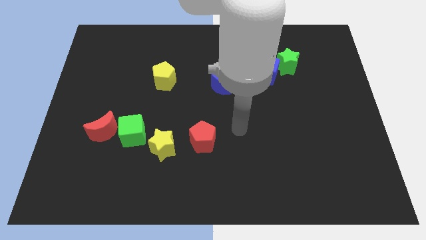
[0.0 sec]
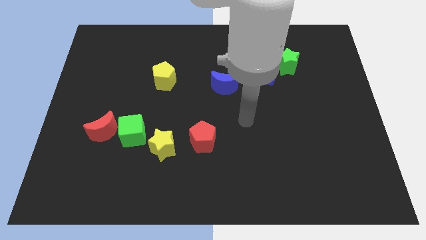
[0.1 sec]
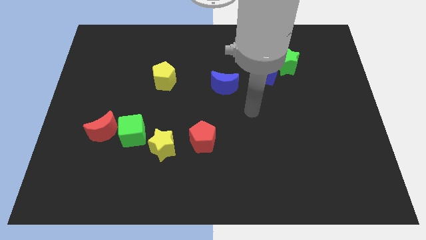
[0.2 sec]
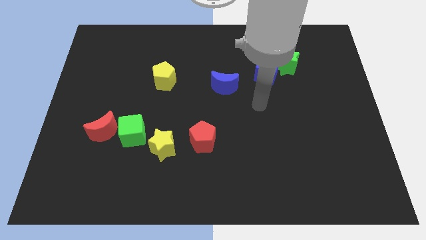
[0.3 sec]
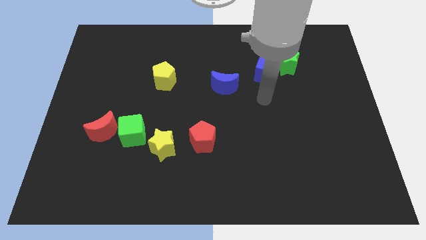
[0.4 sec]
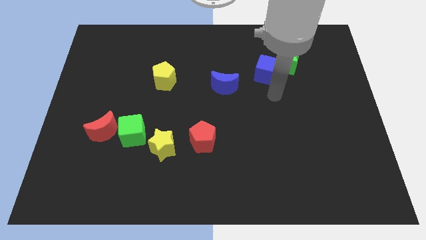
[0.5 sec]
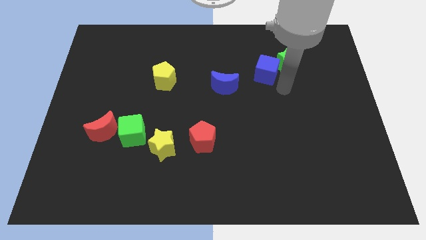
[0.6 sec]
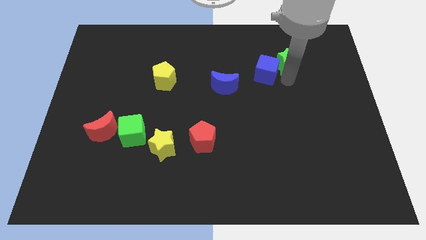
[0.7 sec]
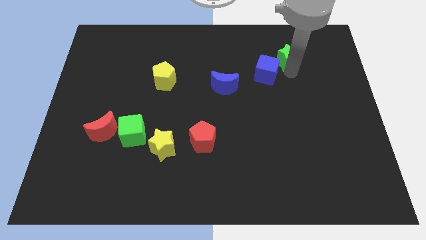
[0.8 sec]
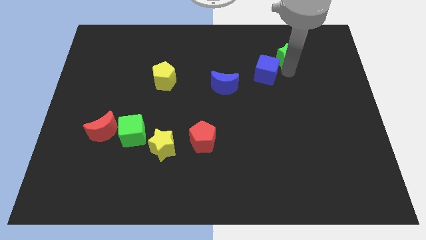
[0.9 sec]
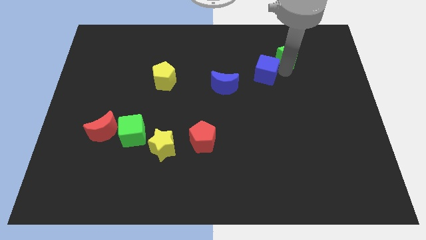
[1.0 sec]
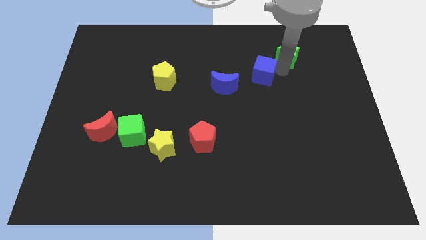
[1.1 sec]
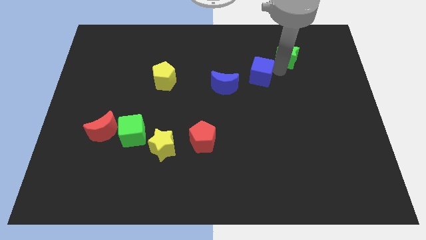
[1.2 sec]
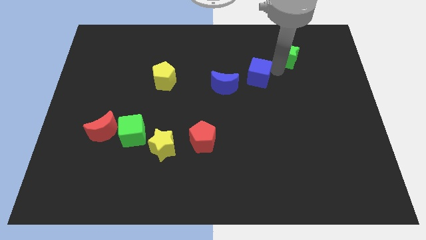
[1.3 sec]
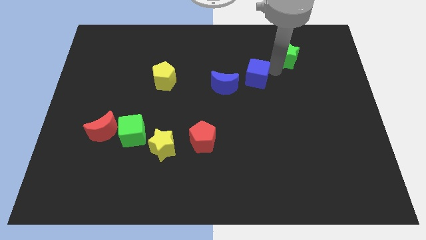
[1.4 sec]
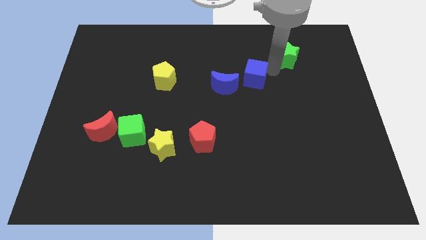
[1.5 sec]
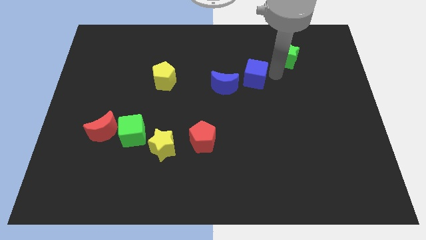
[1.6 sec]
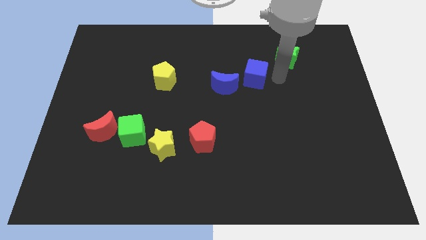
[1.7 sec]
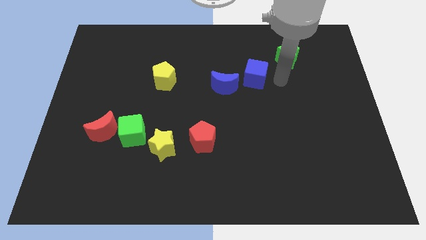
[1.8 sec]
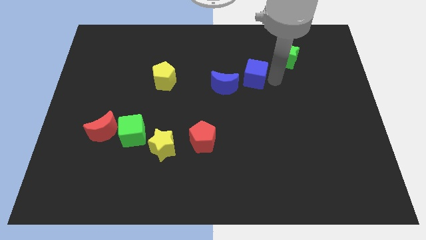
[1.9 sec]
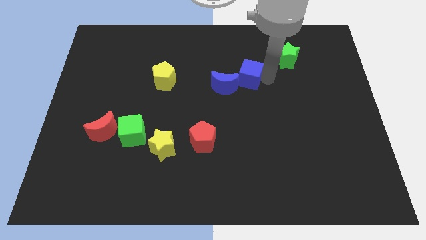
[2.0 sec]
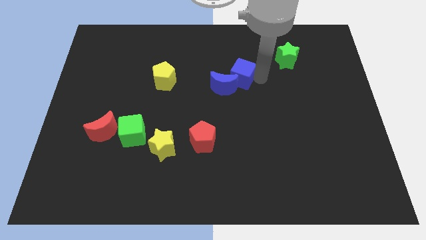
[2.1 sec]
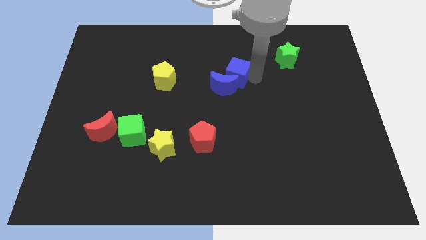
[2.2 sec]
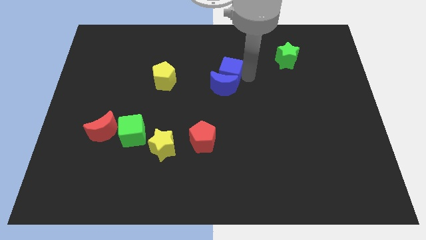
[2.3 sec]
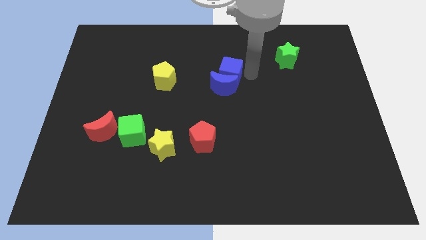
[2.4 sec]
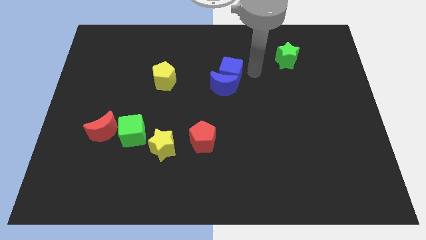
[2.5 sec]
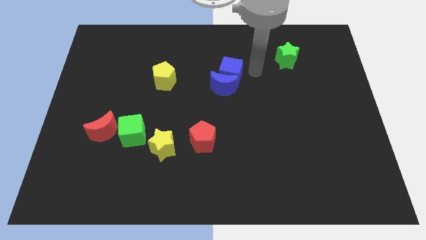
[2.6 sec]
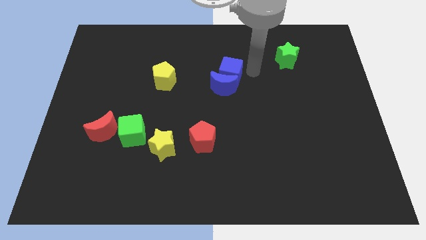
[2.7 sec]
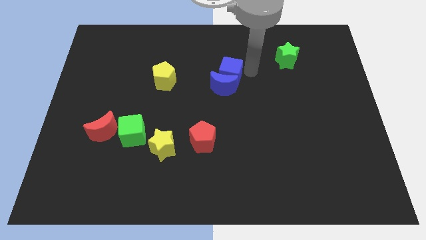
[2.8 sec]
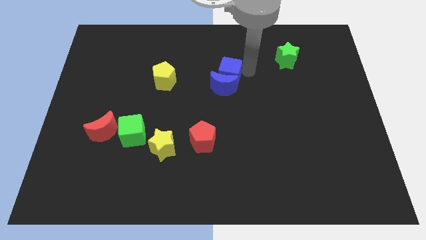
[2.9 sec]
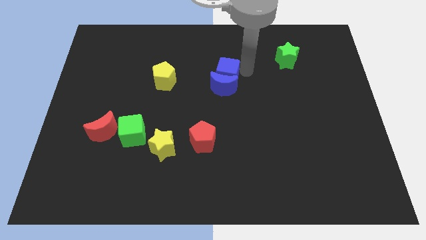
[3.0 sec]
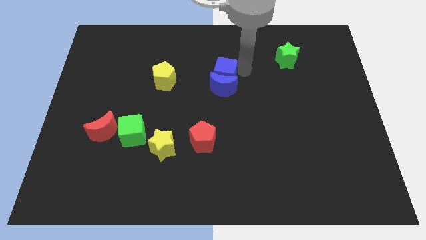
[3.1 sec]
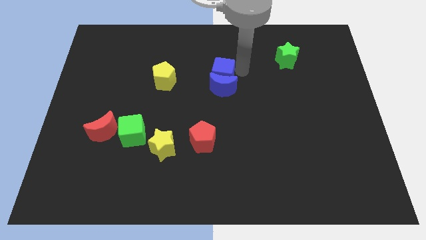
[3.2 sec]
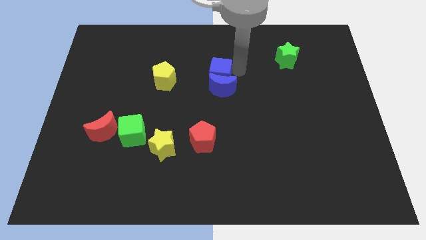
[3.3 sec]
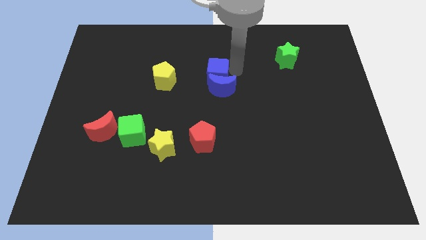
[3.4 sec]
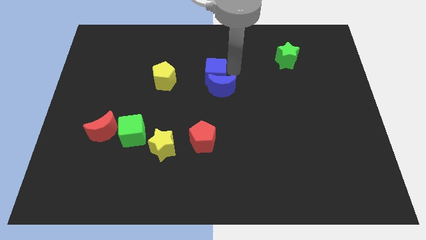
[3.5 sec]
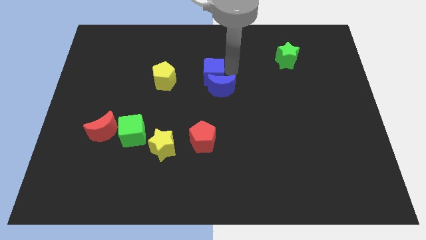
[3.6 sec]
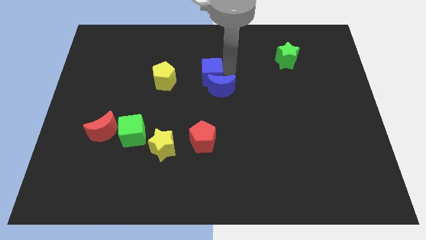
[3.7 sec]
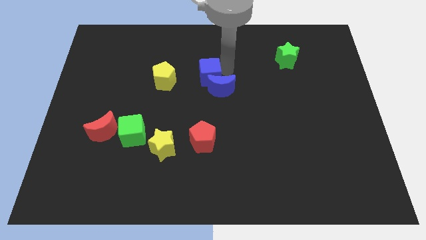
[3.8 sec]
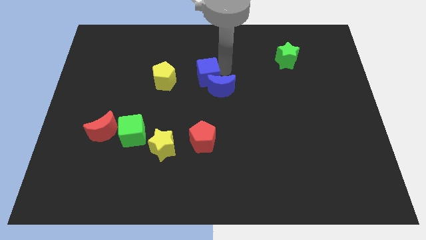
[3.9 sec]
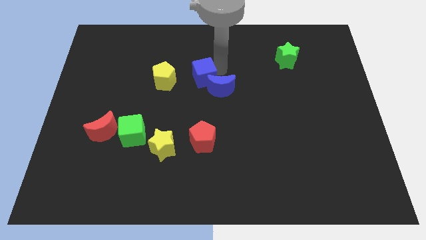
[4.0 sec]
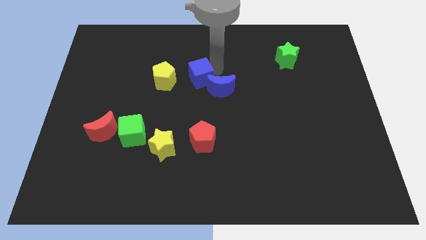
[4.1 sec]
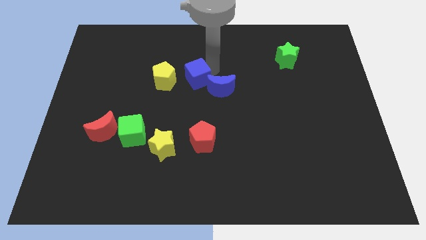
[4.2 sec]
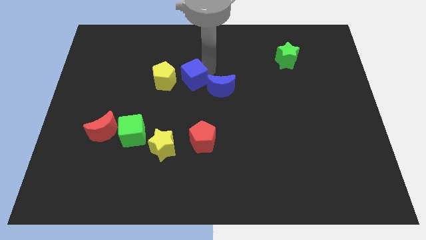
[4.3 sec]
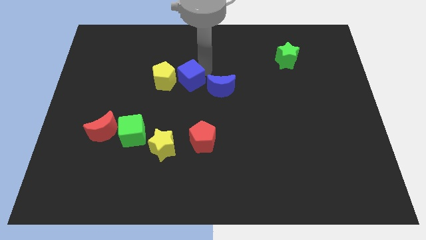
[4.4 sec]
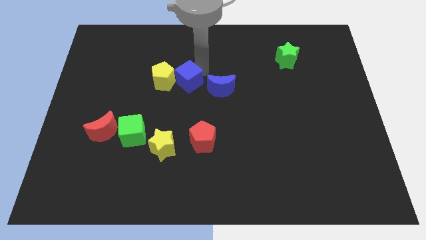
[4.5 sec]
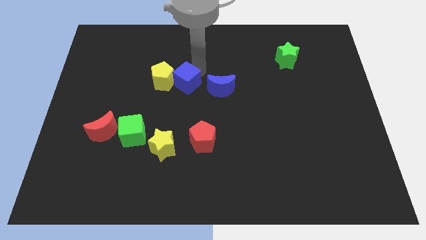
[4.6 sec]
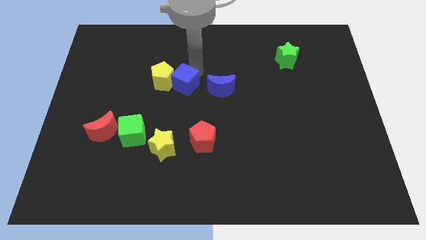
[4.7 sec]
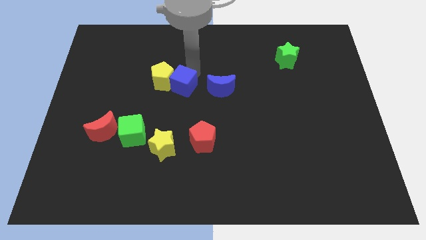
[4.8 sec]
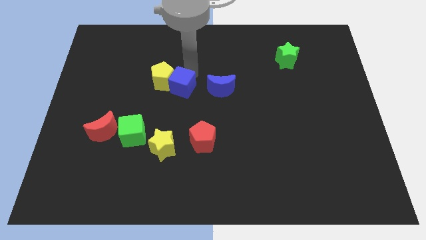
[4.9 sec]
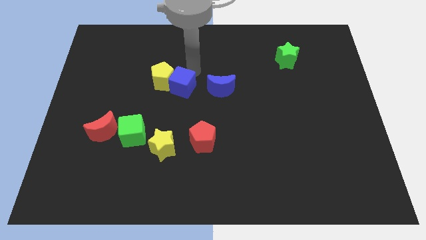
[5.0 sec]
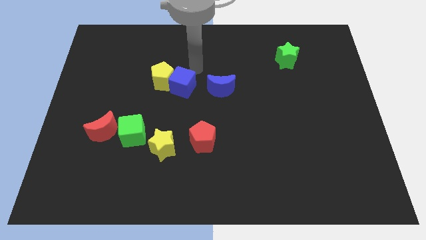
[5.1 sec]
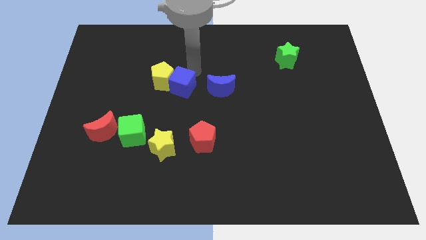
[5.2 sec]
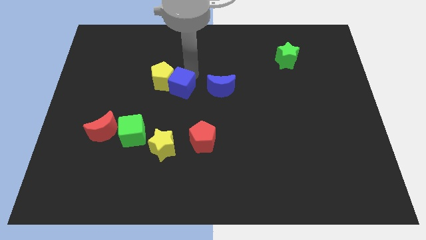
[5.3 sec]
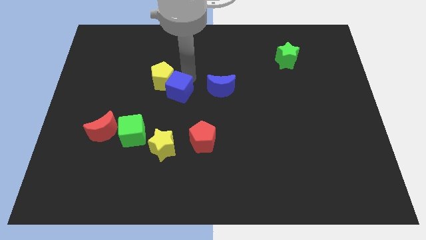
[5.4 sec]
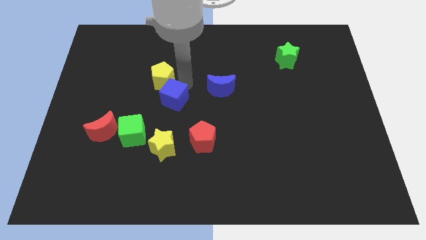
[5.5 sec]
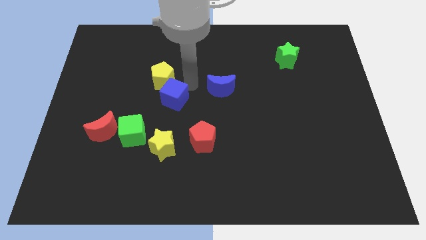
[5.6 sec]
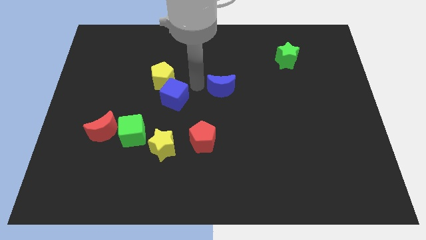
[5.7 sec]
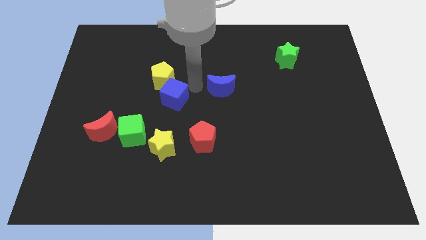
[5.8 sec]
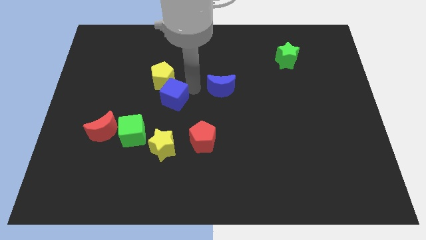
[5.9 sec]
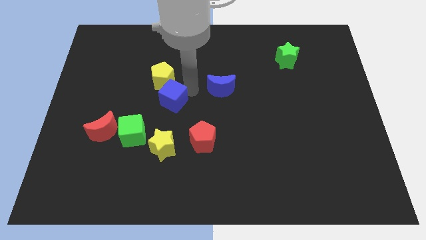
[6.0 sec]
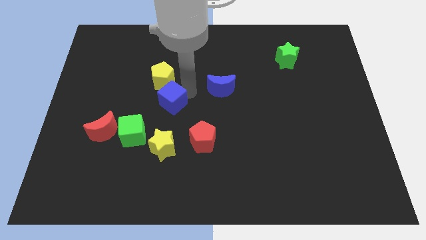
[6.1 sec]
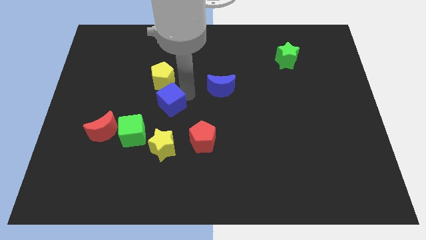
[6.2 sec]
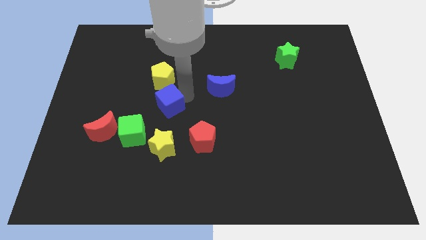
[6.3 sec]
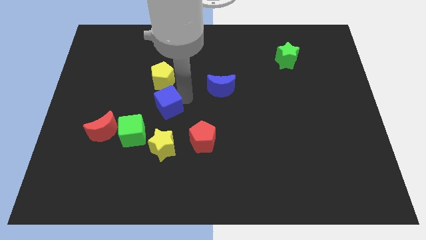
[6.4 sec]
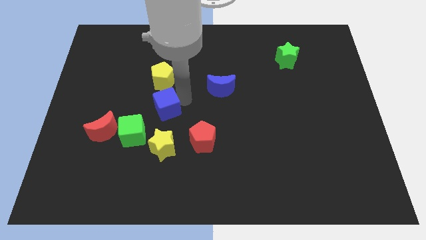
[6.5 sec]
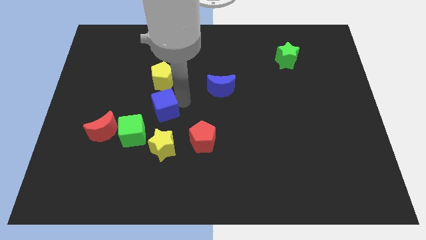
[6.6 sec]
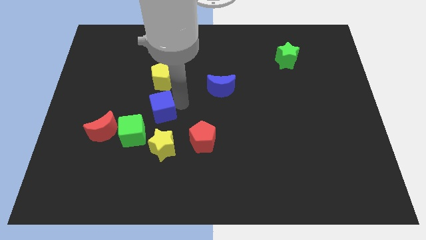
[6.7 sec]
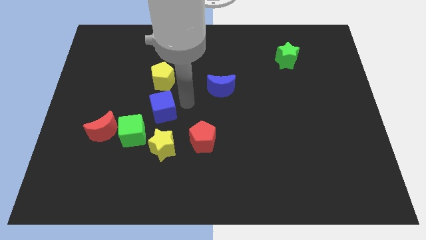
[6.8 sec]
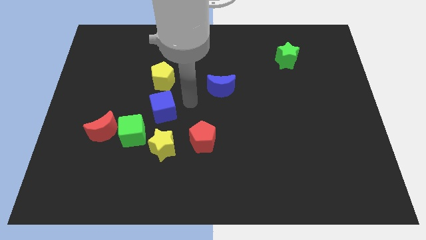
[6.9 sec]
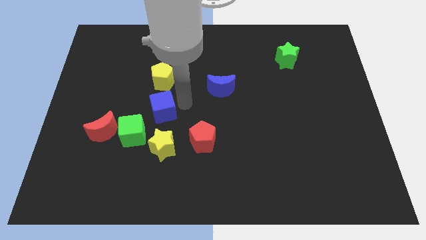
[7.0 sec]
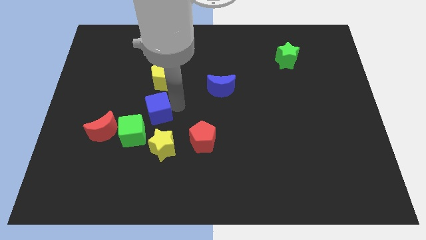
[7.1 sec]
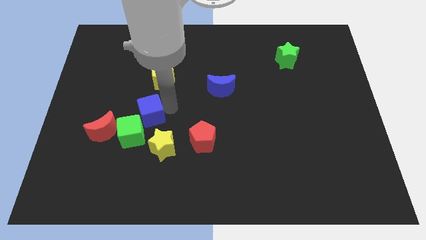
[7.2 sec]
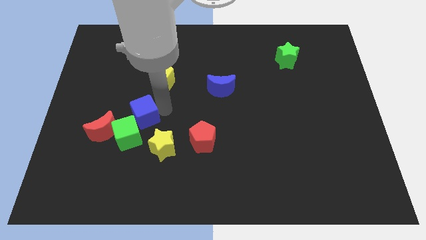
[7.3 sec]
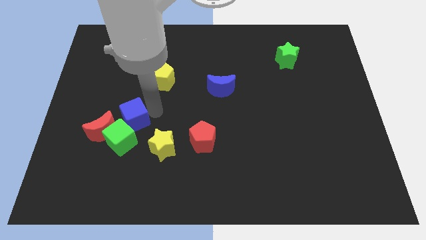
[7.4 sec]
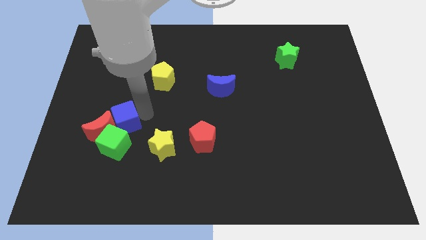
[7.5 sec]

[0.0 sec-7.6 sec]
put the blue cube close to the red moon
